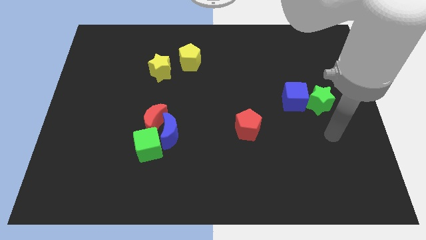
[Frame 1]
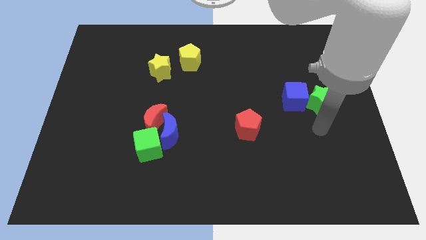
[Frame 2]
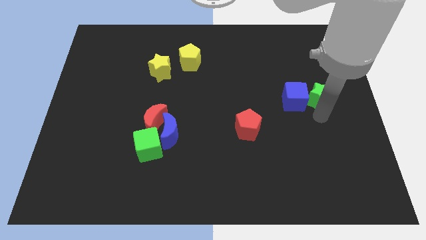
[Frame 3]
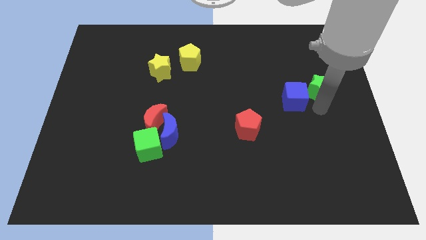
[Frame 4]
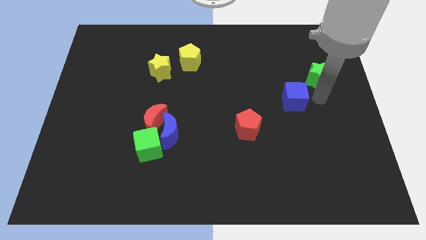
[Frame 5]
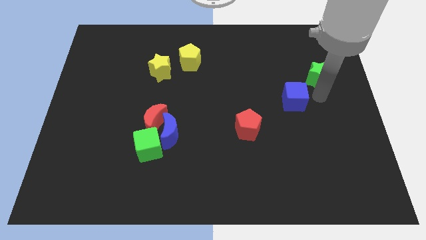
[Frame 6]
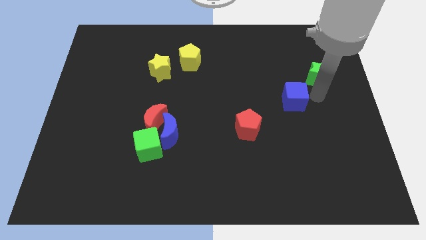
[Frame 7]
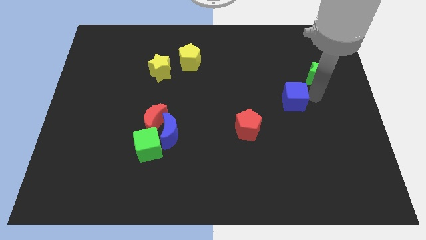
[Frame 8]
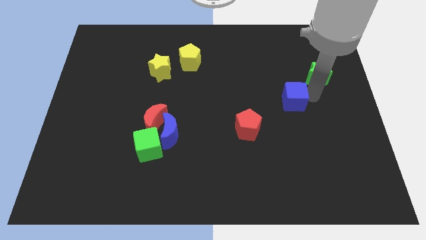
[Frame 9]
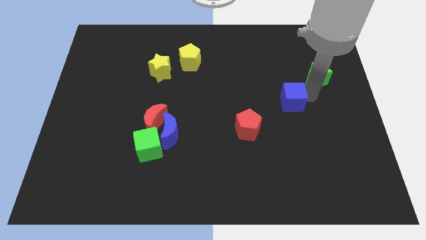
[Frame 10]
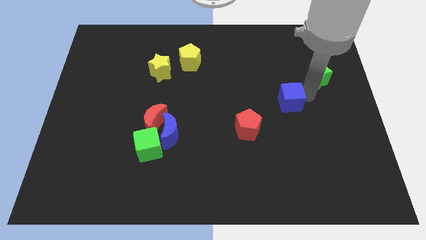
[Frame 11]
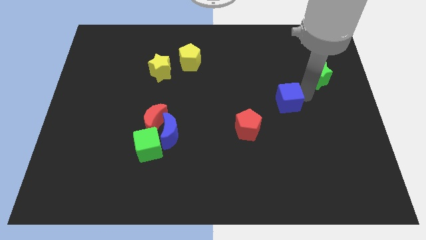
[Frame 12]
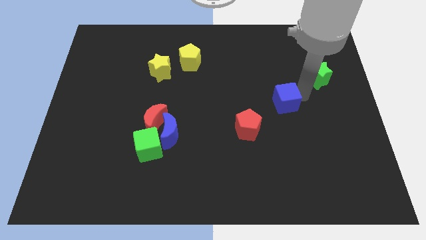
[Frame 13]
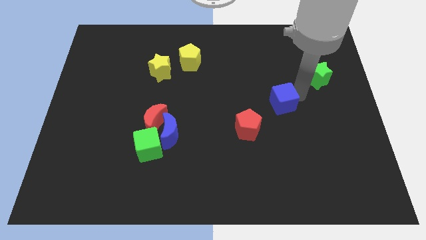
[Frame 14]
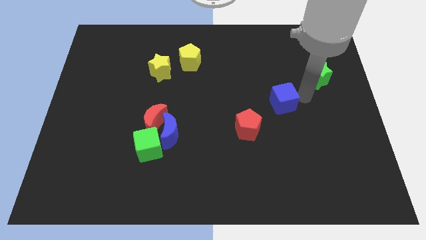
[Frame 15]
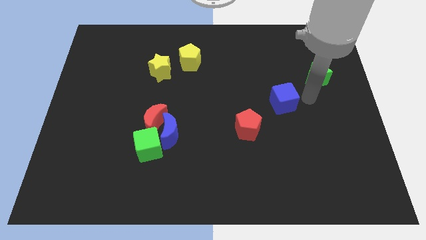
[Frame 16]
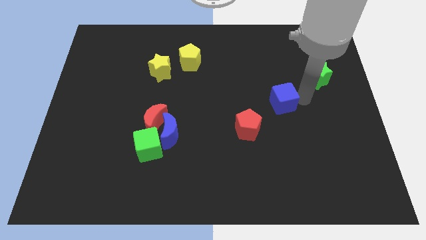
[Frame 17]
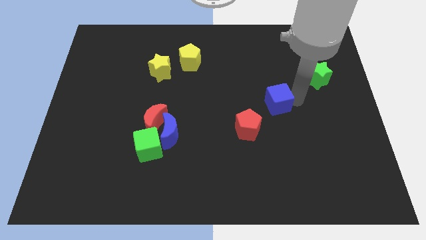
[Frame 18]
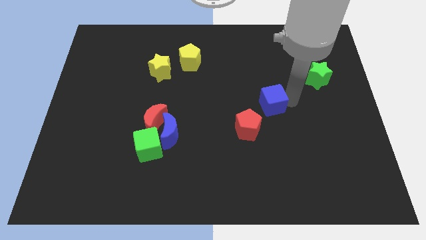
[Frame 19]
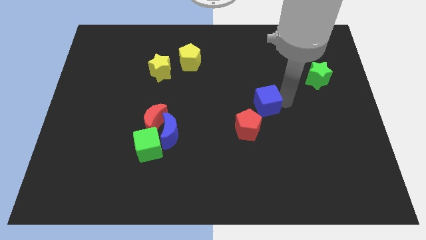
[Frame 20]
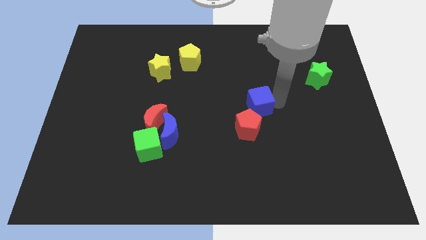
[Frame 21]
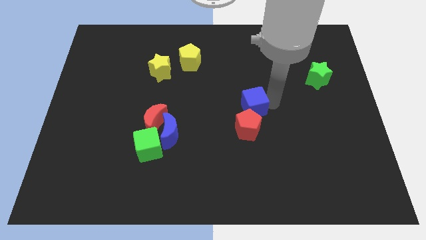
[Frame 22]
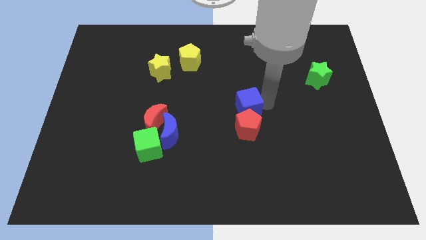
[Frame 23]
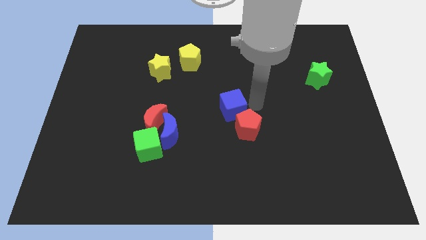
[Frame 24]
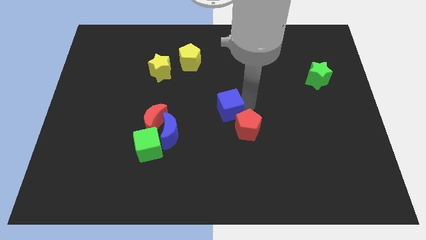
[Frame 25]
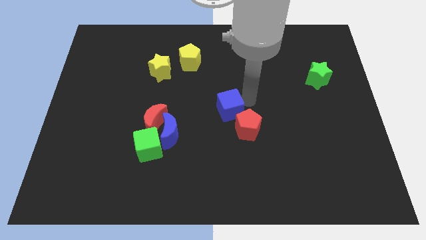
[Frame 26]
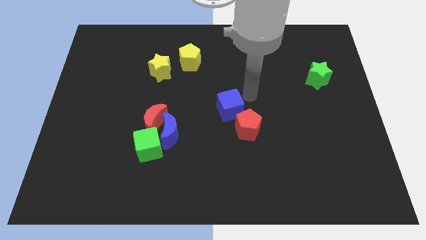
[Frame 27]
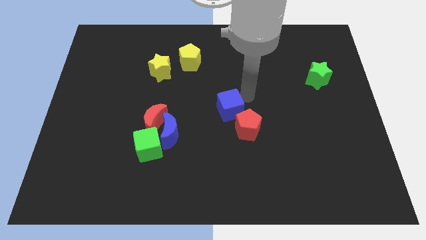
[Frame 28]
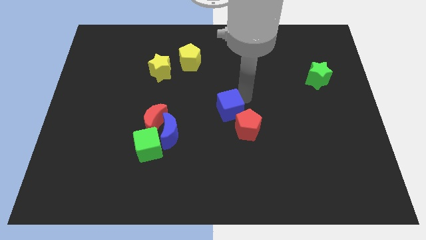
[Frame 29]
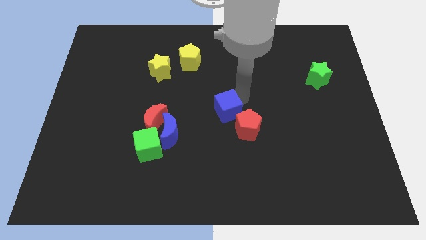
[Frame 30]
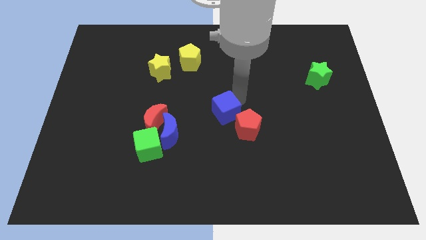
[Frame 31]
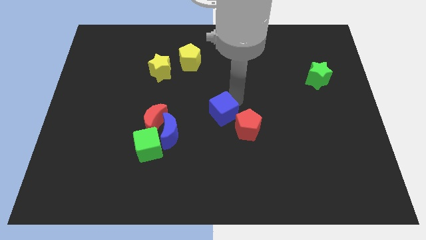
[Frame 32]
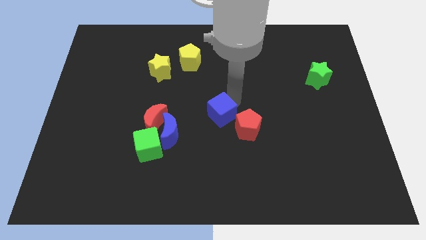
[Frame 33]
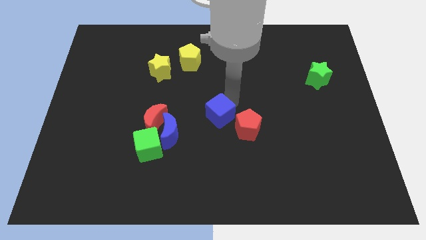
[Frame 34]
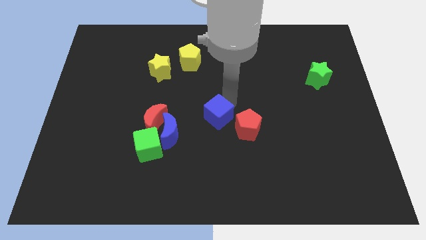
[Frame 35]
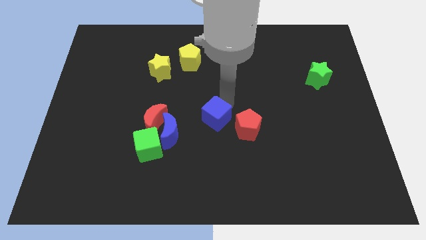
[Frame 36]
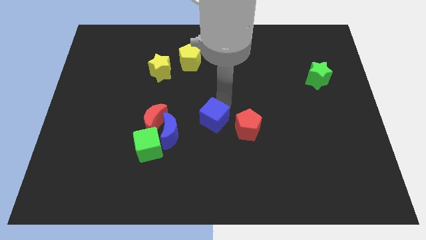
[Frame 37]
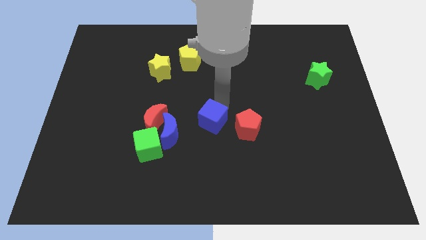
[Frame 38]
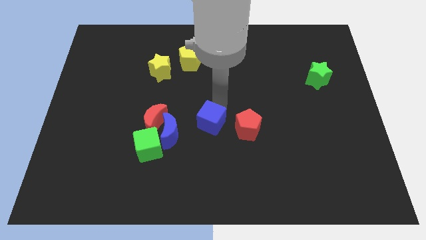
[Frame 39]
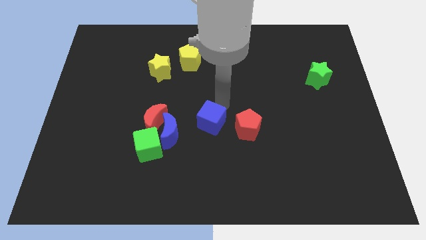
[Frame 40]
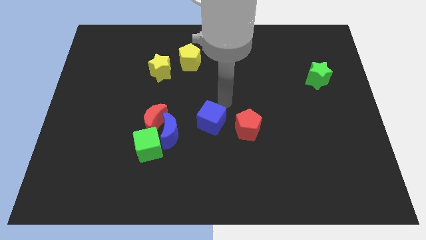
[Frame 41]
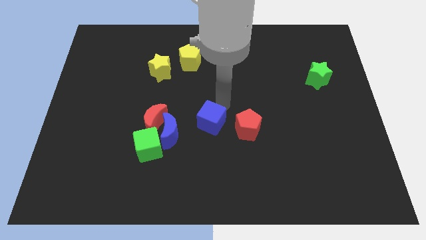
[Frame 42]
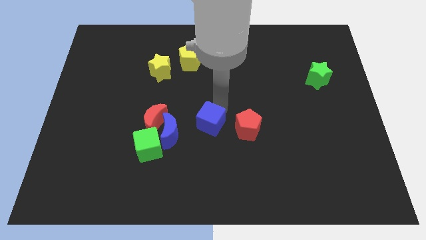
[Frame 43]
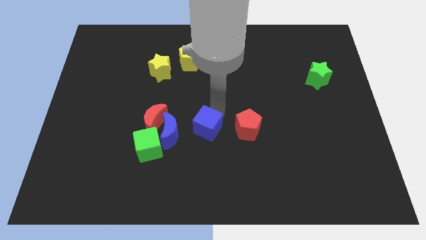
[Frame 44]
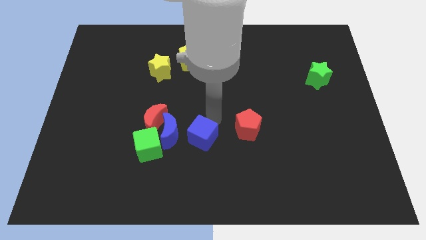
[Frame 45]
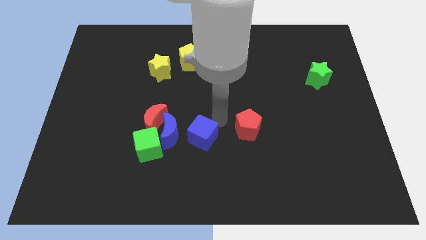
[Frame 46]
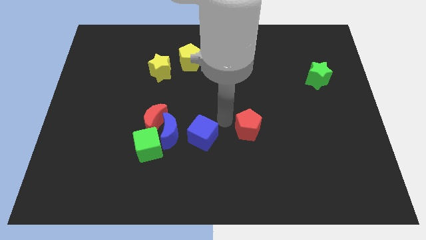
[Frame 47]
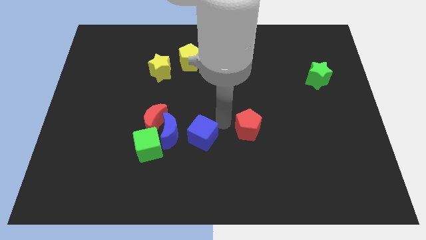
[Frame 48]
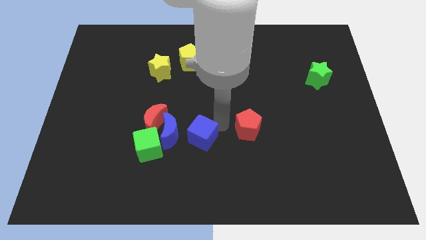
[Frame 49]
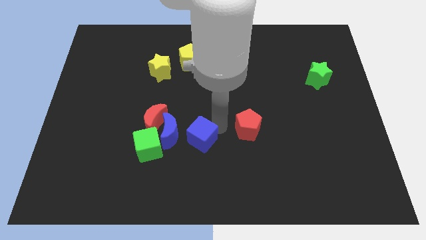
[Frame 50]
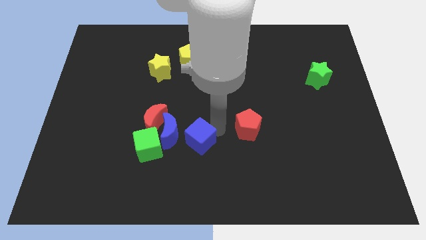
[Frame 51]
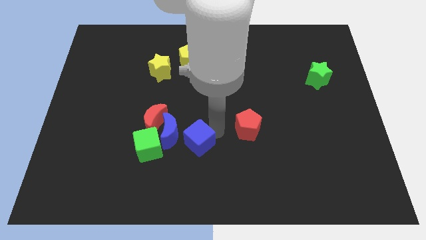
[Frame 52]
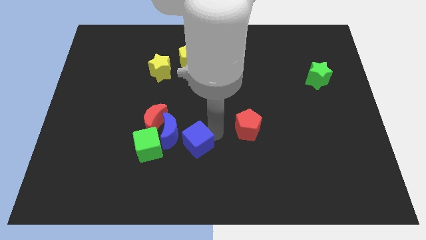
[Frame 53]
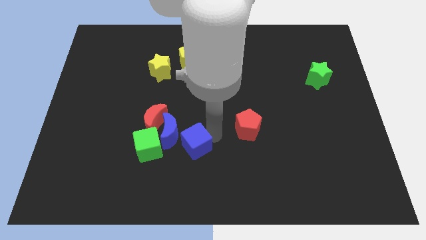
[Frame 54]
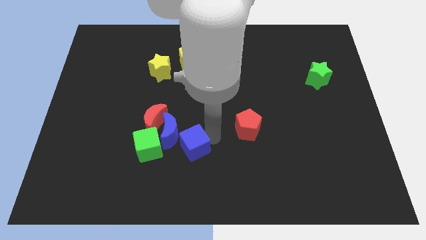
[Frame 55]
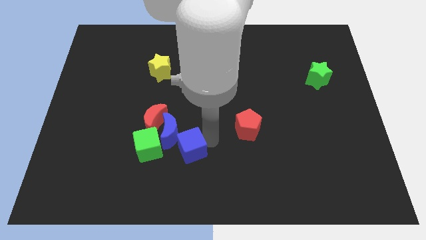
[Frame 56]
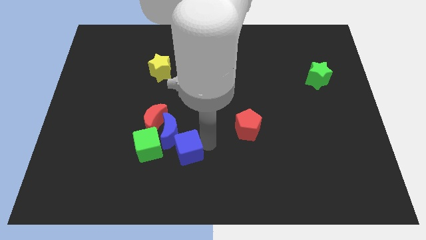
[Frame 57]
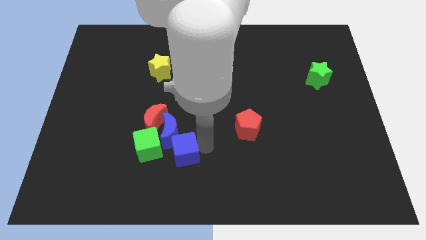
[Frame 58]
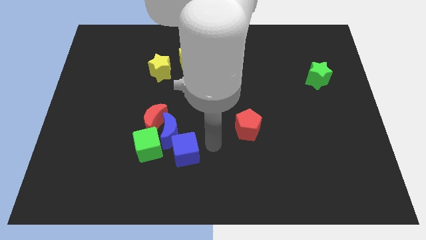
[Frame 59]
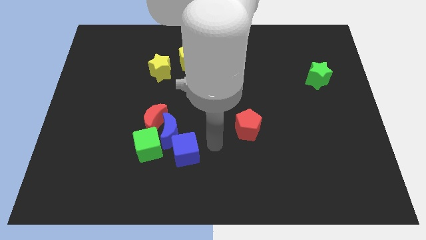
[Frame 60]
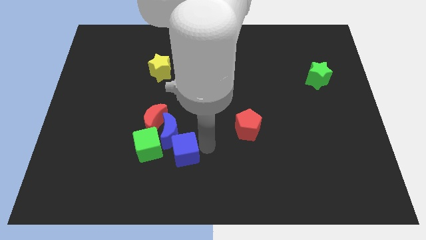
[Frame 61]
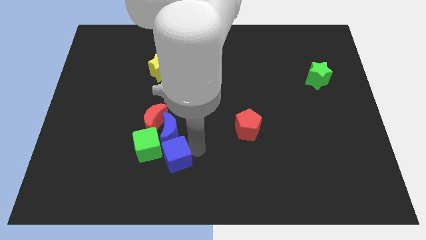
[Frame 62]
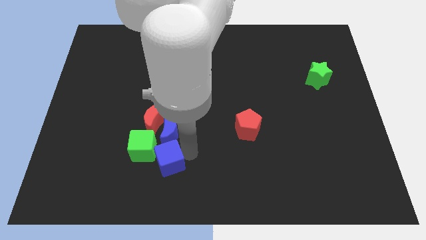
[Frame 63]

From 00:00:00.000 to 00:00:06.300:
push the blue cube below the red moon

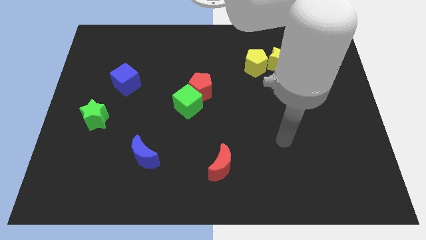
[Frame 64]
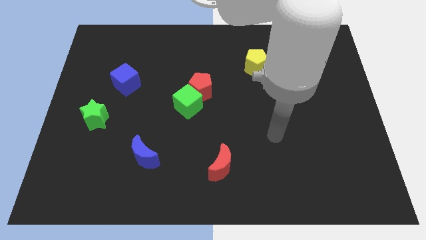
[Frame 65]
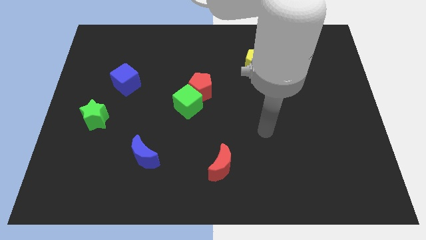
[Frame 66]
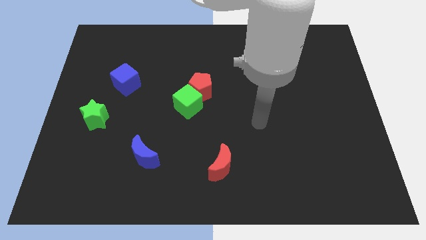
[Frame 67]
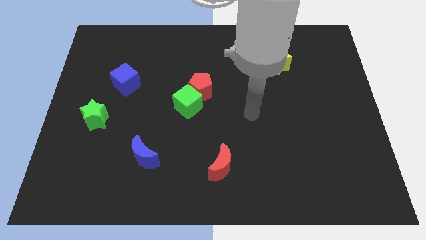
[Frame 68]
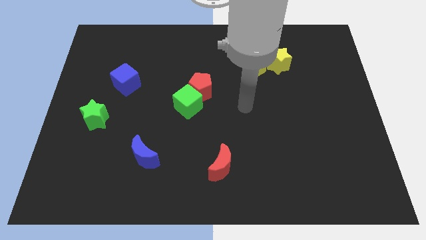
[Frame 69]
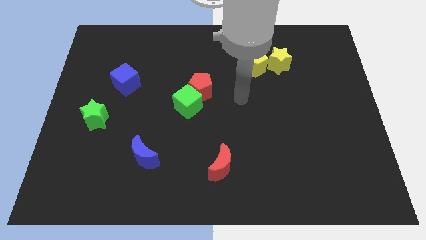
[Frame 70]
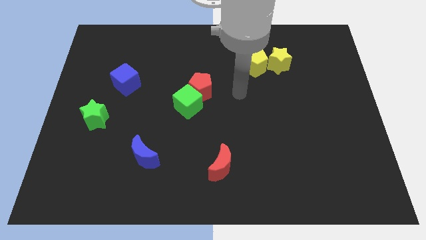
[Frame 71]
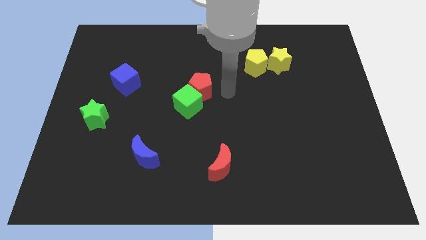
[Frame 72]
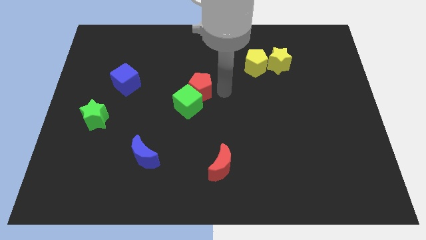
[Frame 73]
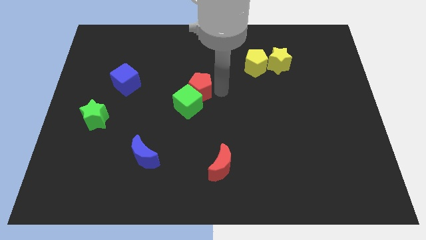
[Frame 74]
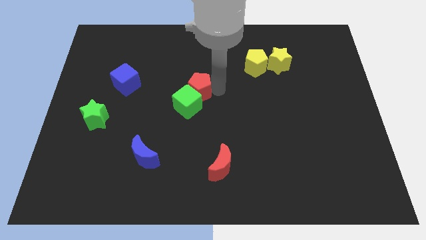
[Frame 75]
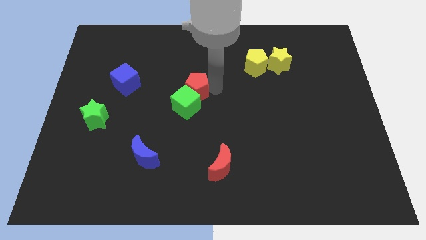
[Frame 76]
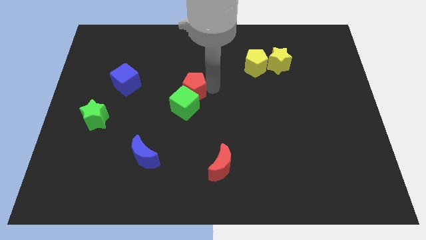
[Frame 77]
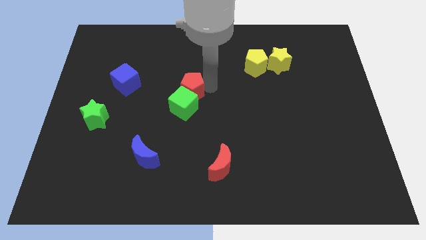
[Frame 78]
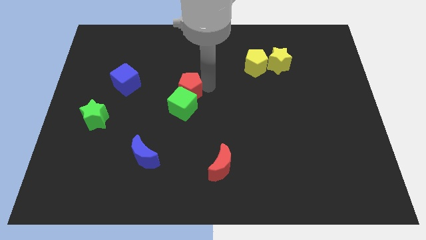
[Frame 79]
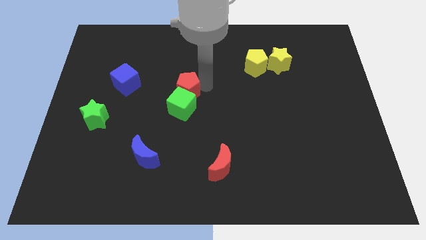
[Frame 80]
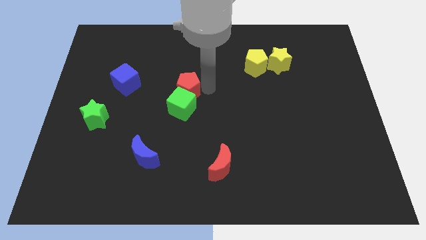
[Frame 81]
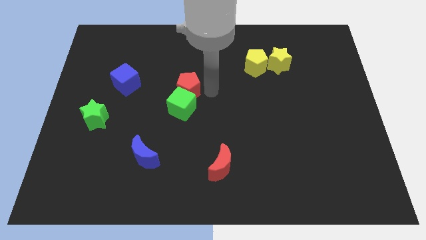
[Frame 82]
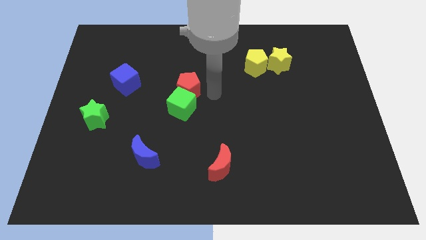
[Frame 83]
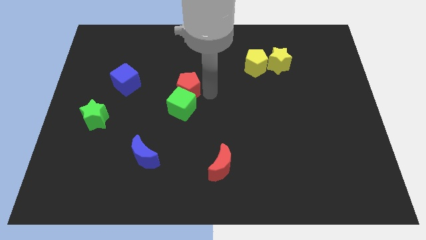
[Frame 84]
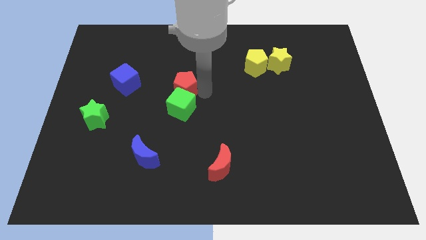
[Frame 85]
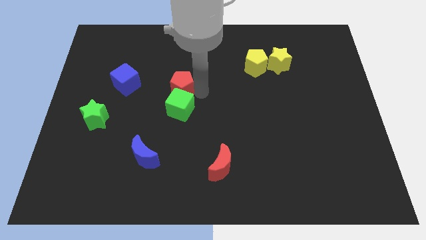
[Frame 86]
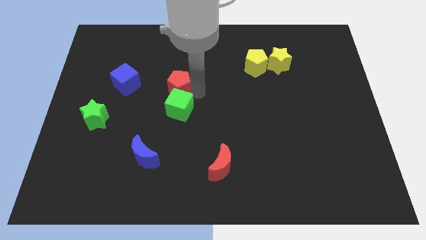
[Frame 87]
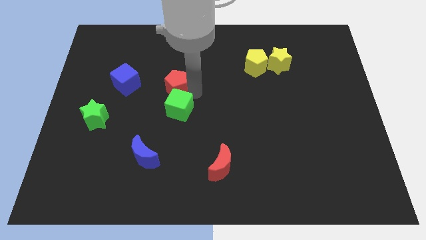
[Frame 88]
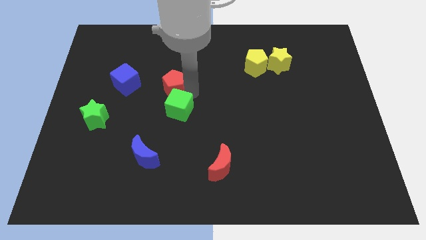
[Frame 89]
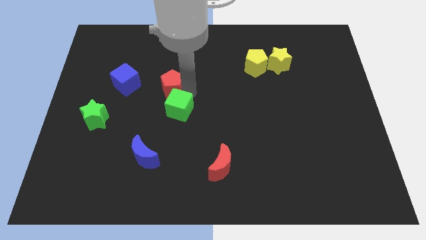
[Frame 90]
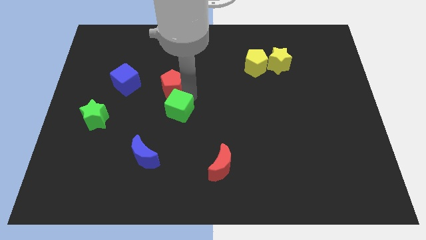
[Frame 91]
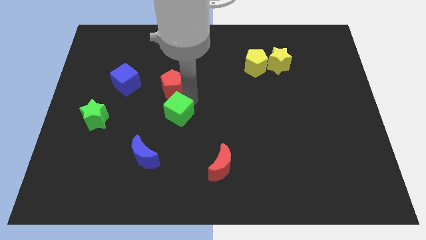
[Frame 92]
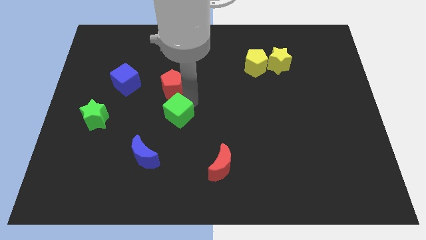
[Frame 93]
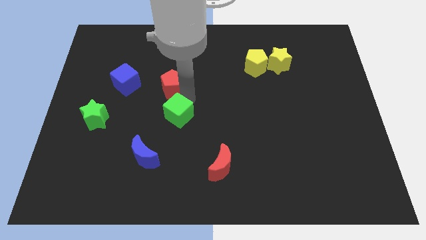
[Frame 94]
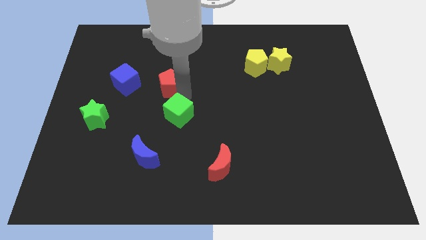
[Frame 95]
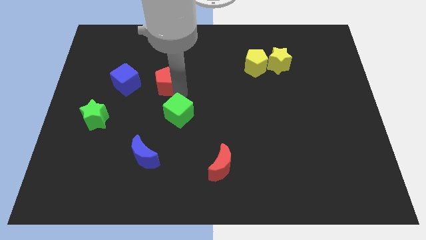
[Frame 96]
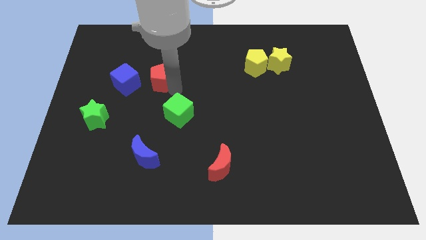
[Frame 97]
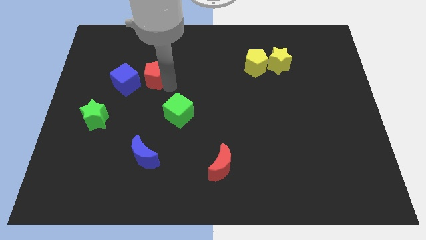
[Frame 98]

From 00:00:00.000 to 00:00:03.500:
put the red pentagon to the top right side of the blue cube
